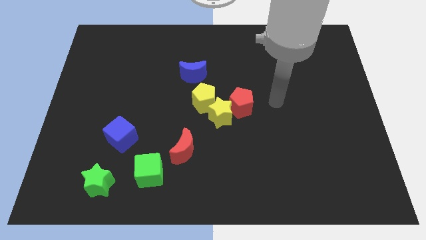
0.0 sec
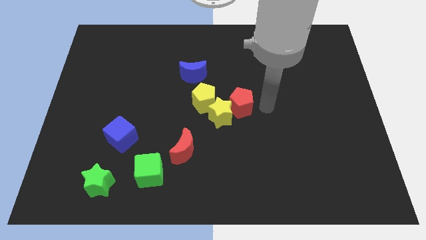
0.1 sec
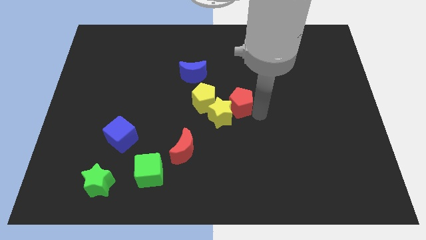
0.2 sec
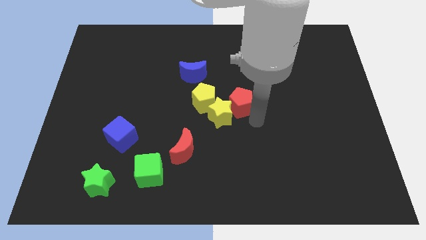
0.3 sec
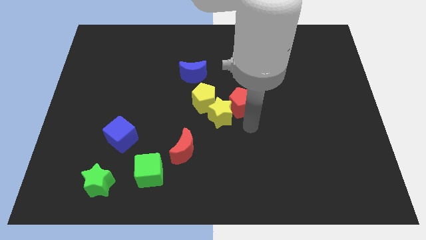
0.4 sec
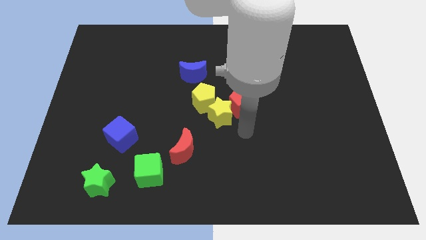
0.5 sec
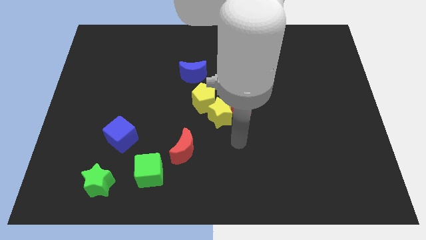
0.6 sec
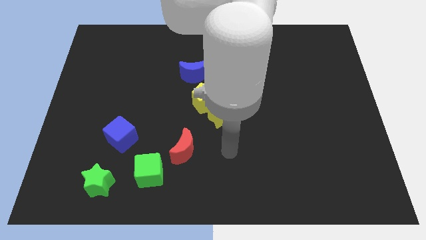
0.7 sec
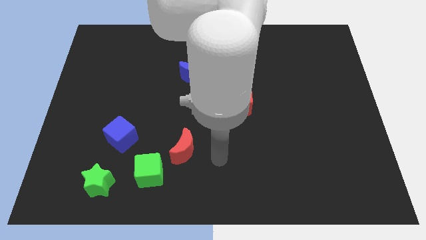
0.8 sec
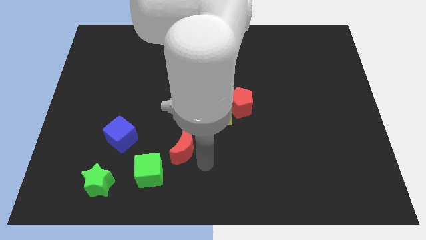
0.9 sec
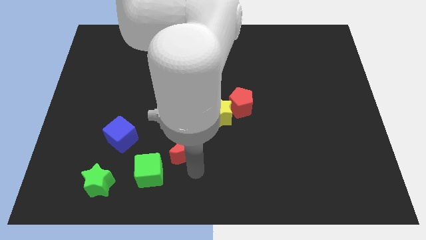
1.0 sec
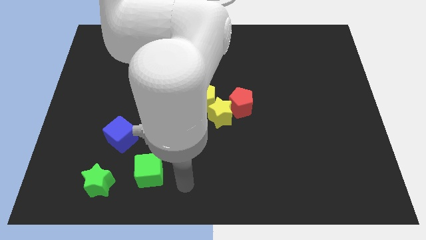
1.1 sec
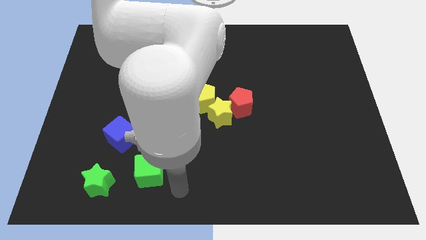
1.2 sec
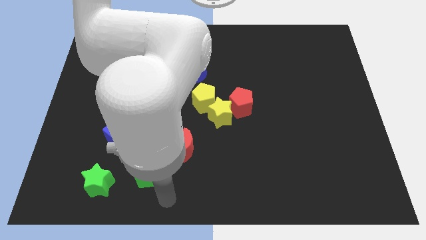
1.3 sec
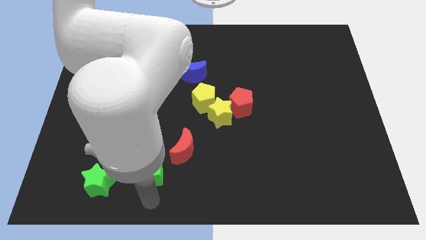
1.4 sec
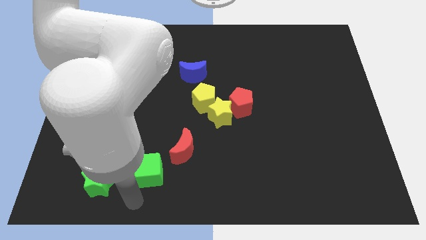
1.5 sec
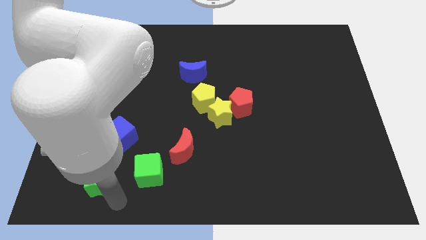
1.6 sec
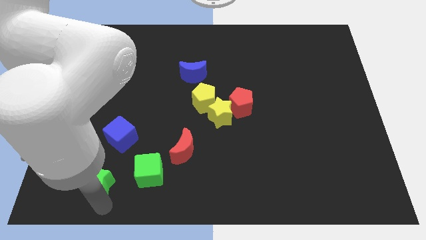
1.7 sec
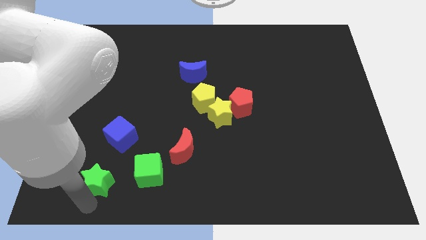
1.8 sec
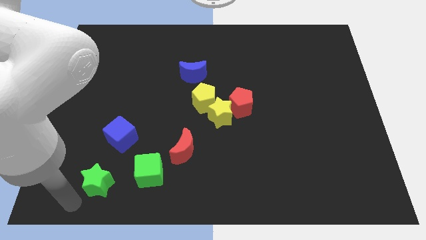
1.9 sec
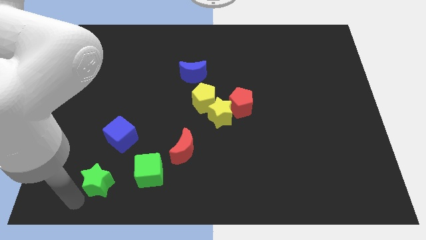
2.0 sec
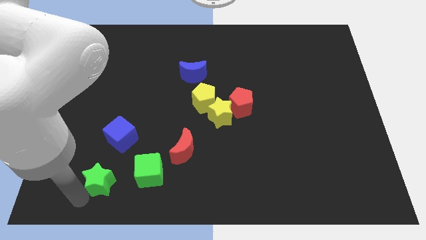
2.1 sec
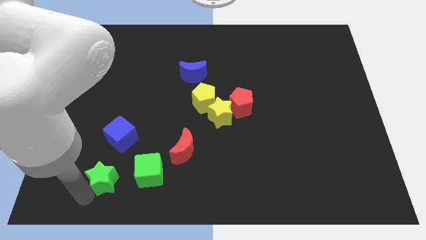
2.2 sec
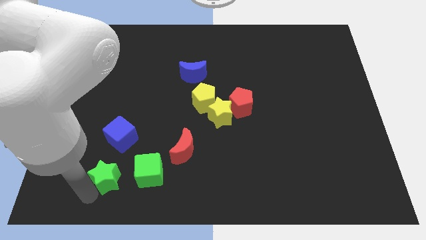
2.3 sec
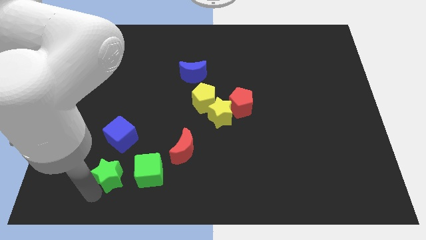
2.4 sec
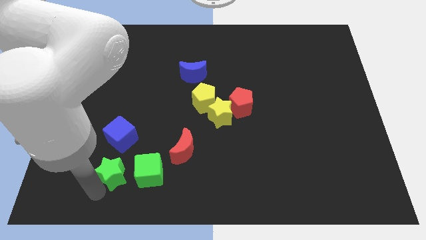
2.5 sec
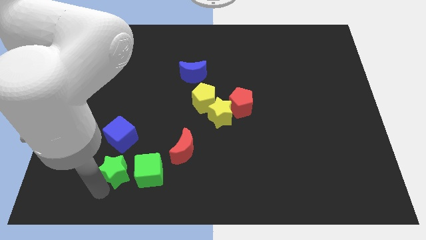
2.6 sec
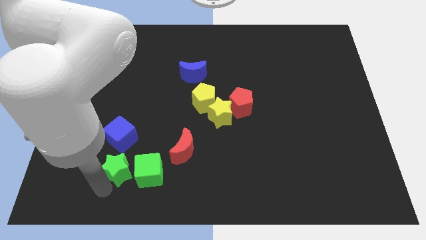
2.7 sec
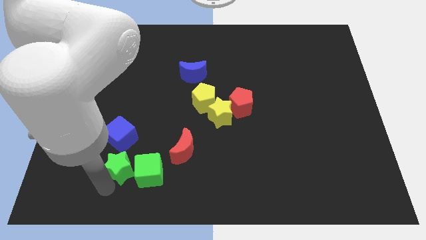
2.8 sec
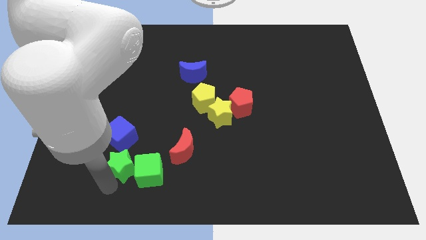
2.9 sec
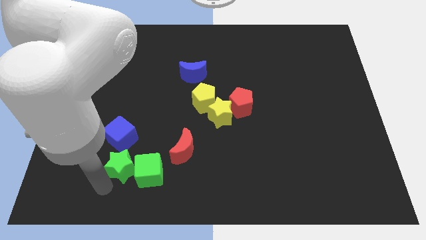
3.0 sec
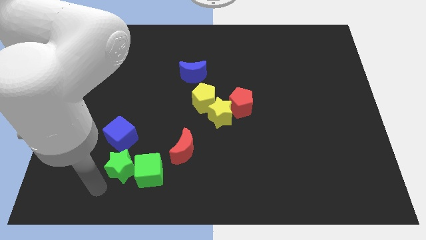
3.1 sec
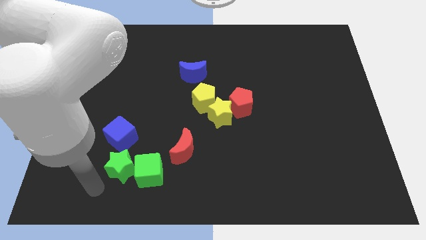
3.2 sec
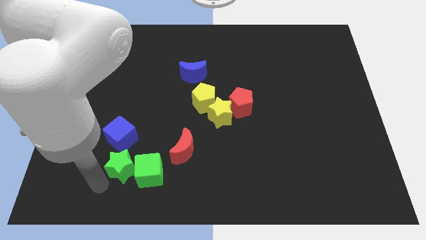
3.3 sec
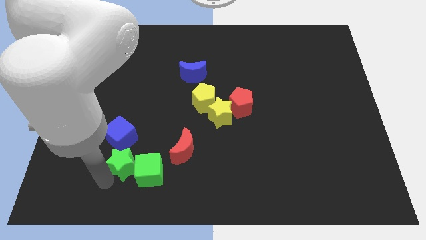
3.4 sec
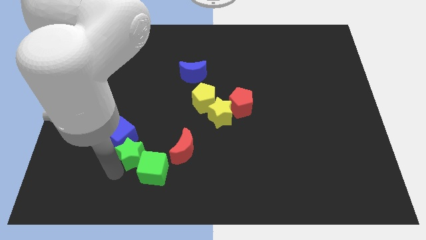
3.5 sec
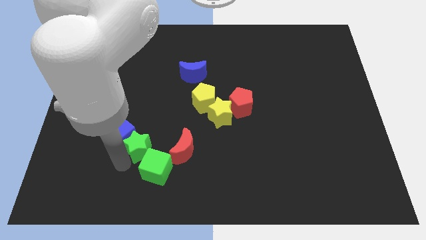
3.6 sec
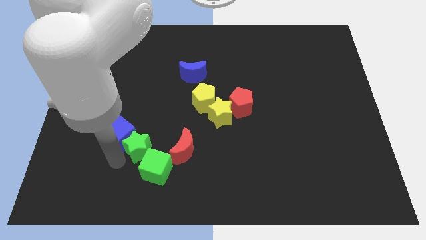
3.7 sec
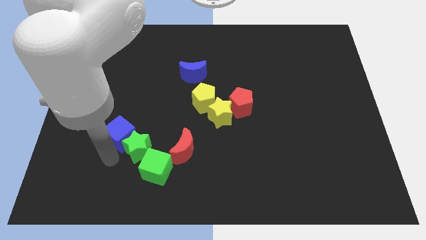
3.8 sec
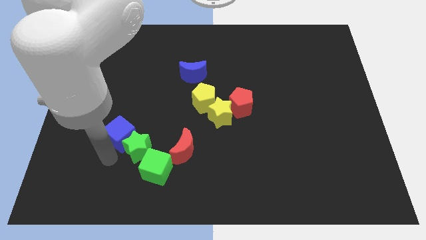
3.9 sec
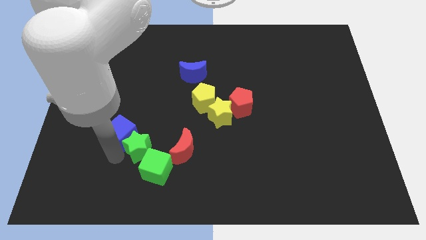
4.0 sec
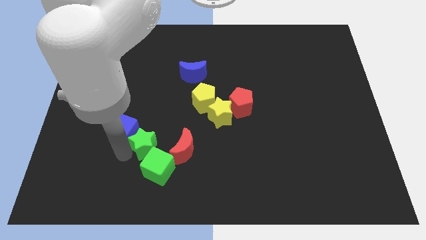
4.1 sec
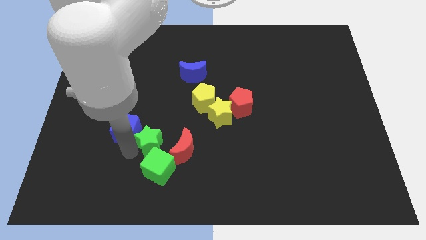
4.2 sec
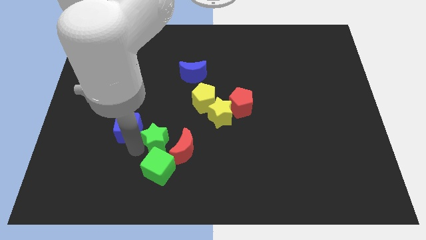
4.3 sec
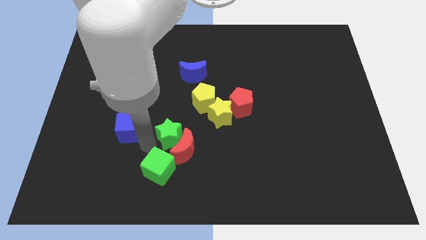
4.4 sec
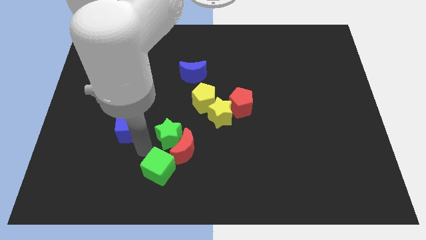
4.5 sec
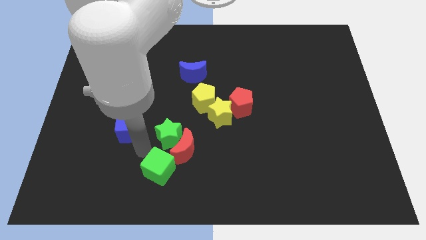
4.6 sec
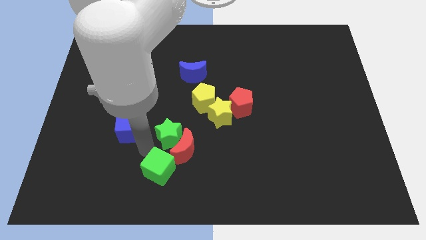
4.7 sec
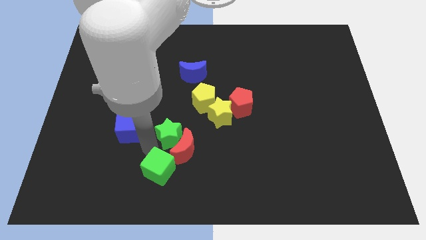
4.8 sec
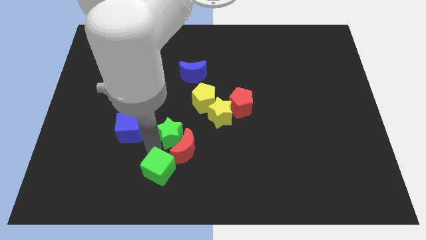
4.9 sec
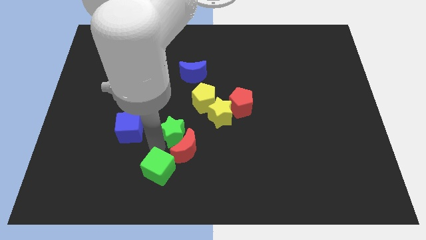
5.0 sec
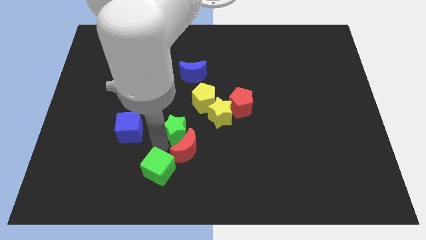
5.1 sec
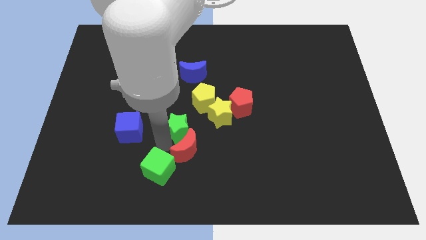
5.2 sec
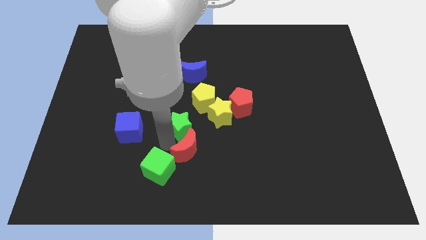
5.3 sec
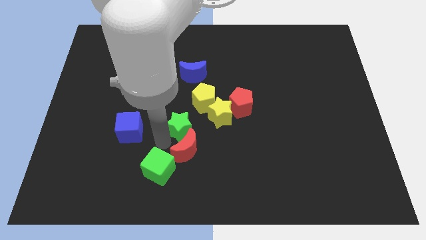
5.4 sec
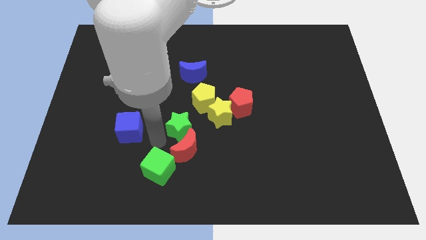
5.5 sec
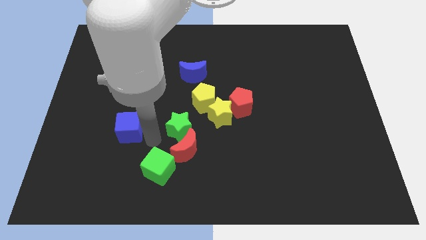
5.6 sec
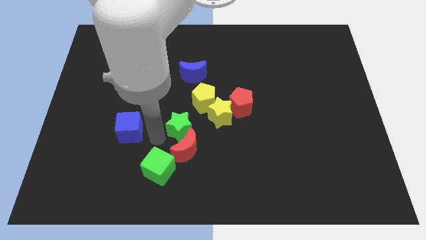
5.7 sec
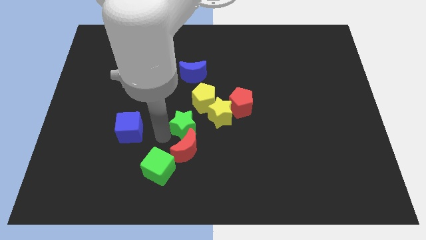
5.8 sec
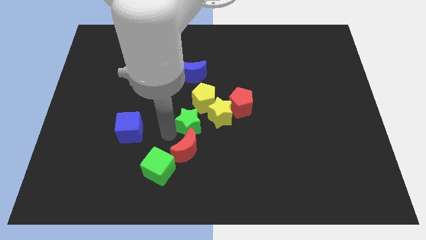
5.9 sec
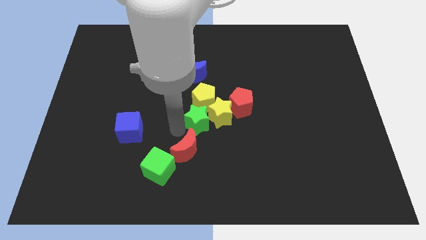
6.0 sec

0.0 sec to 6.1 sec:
push the green star close to the yellow star

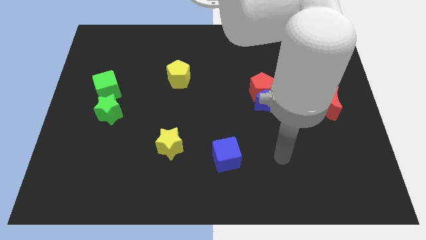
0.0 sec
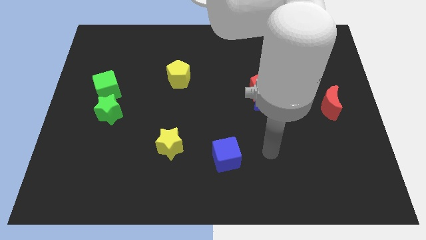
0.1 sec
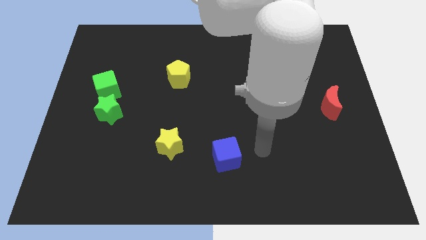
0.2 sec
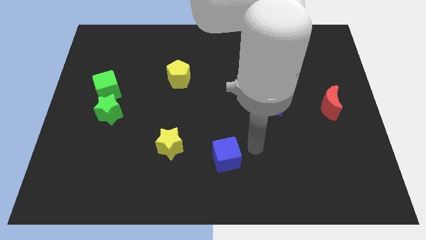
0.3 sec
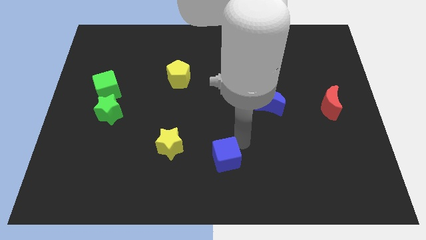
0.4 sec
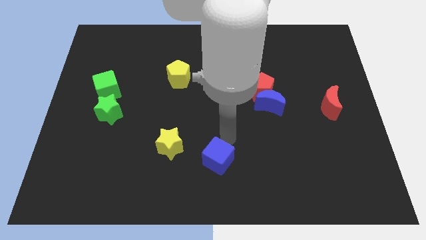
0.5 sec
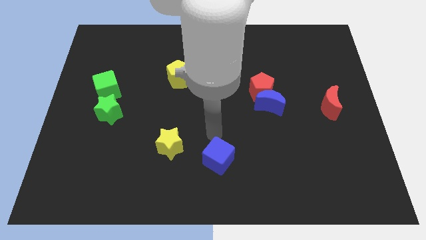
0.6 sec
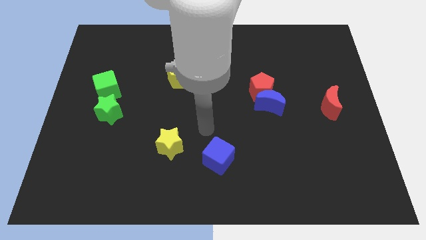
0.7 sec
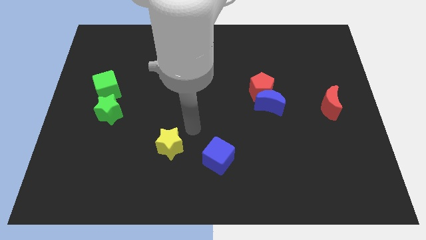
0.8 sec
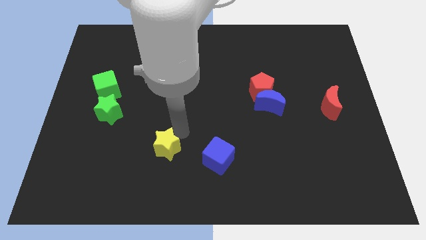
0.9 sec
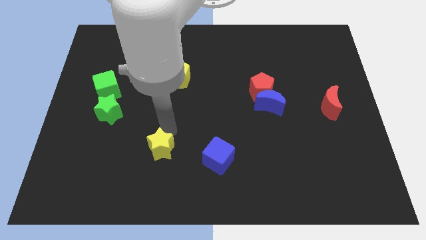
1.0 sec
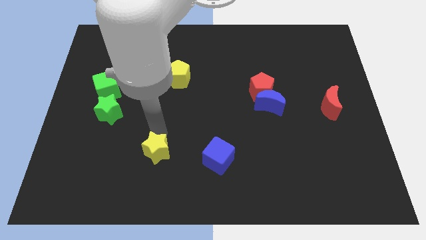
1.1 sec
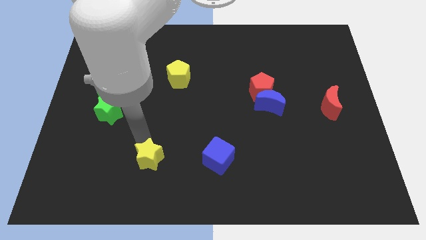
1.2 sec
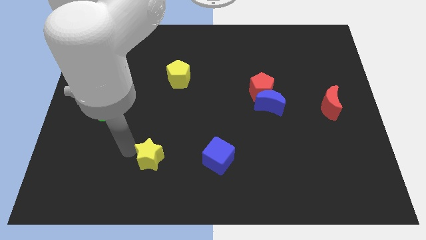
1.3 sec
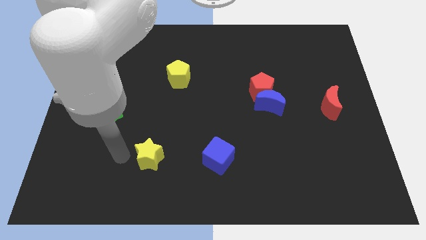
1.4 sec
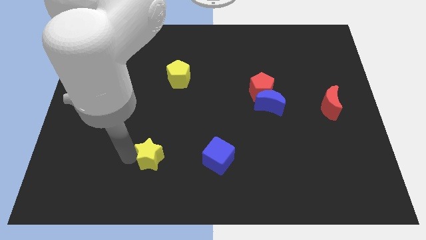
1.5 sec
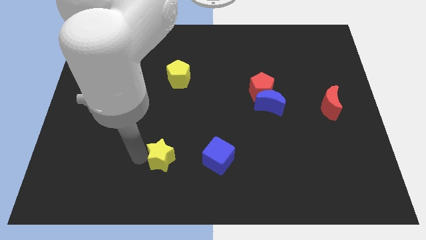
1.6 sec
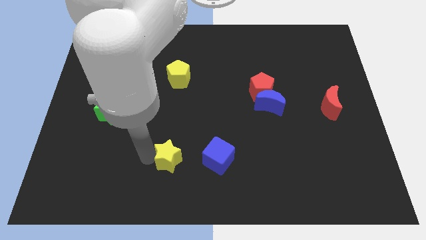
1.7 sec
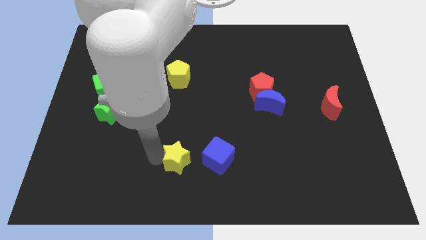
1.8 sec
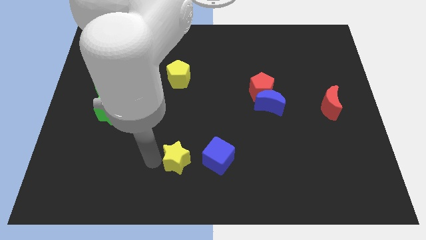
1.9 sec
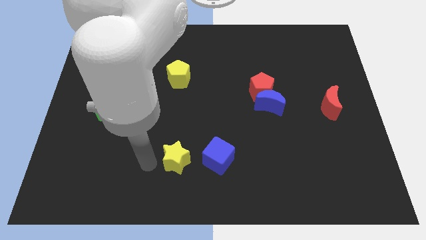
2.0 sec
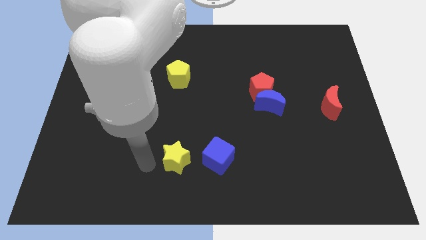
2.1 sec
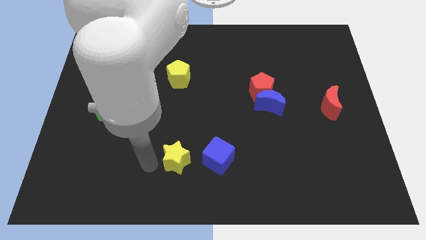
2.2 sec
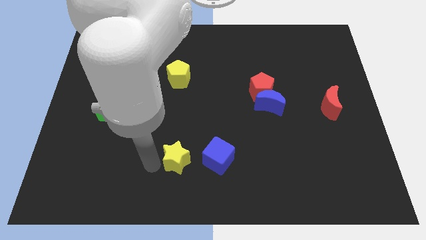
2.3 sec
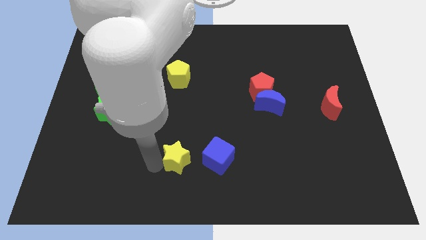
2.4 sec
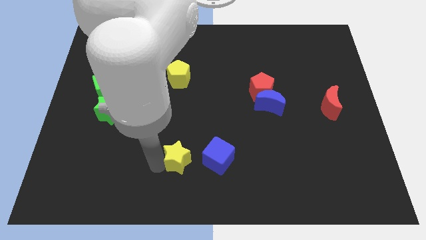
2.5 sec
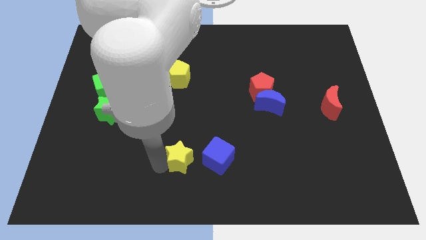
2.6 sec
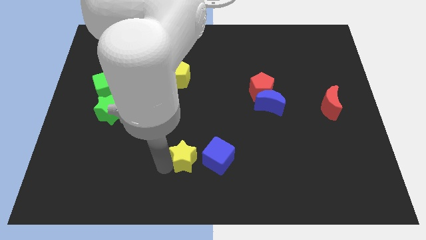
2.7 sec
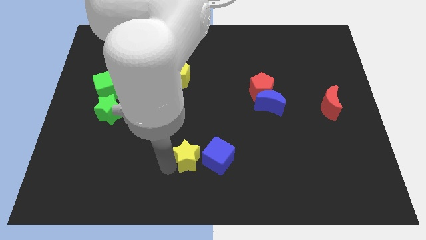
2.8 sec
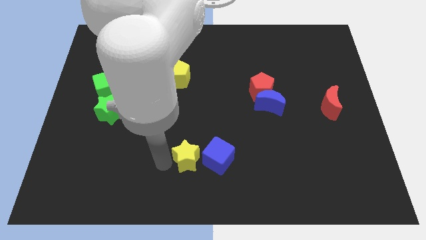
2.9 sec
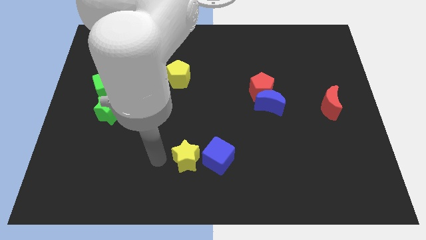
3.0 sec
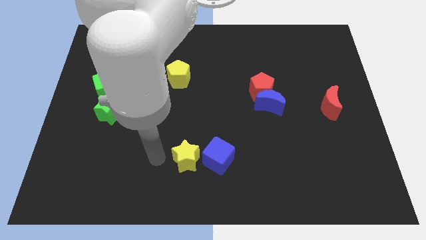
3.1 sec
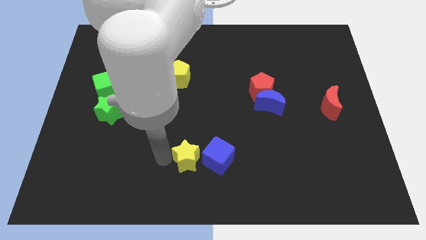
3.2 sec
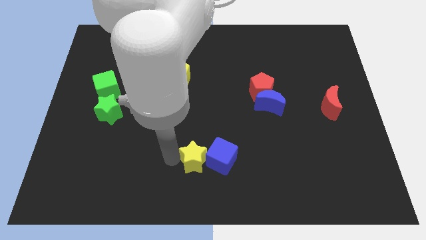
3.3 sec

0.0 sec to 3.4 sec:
put the yellow star close to the blue cube
